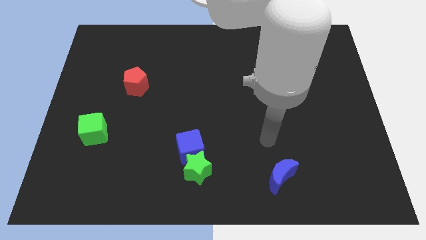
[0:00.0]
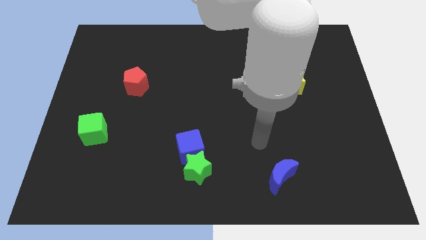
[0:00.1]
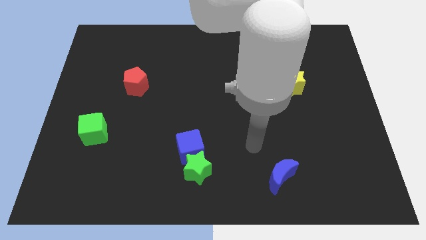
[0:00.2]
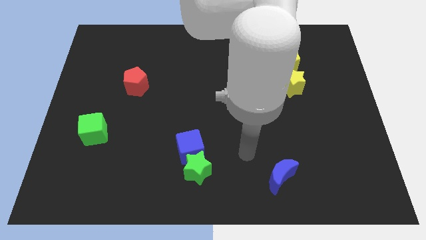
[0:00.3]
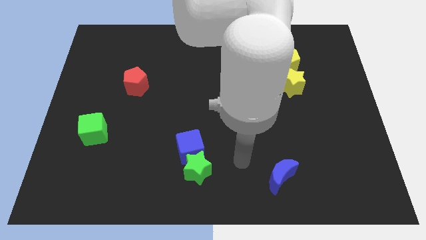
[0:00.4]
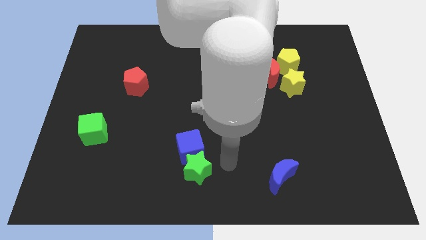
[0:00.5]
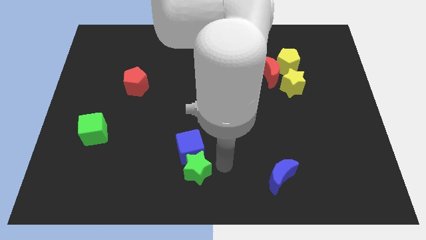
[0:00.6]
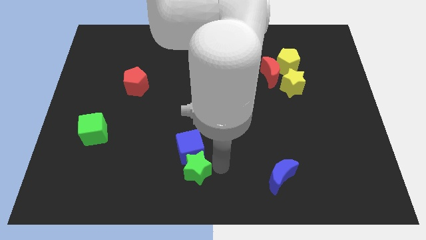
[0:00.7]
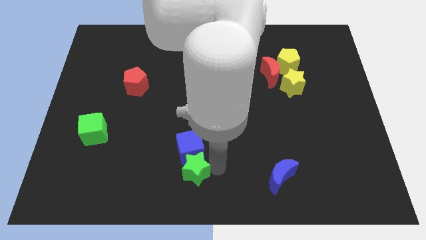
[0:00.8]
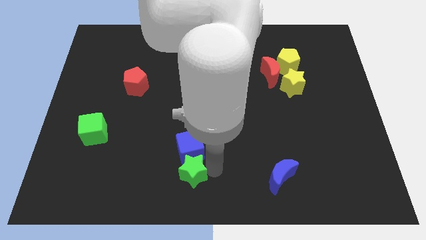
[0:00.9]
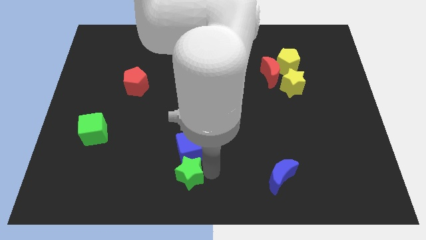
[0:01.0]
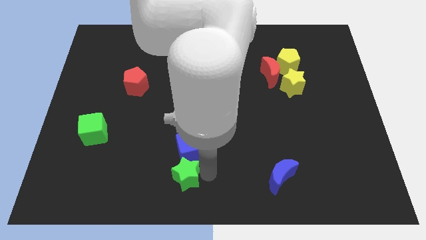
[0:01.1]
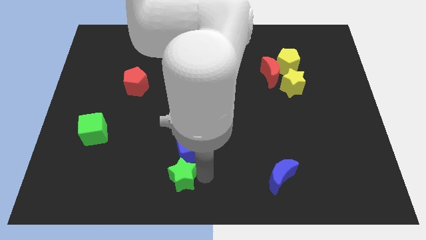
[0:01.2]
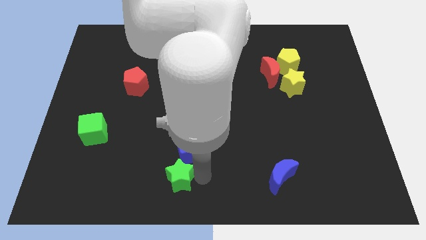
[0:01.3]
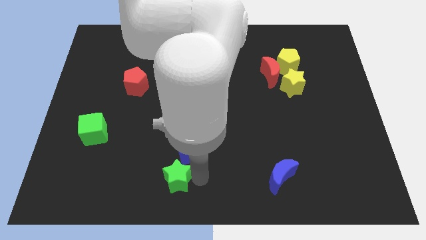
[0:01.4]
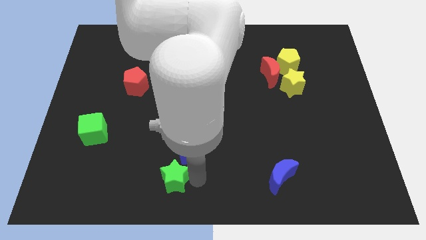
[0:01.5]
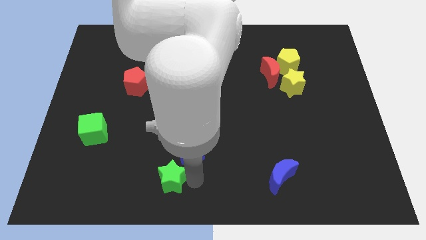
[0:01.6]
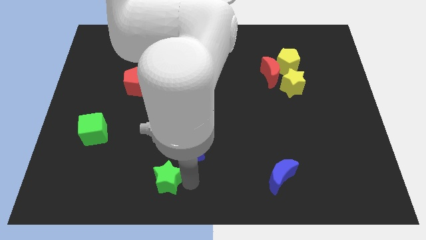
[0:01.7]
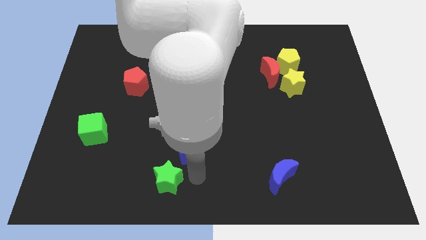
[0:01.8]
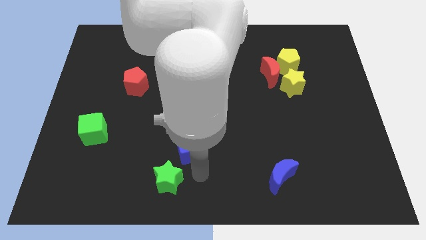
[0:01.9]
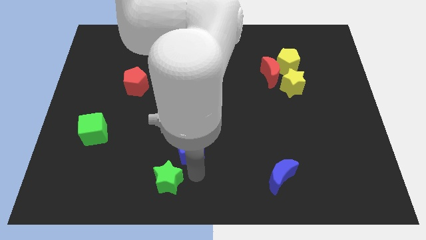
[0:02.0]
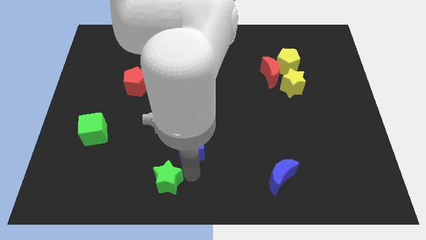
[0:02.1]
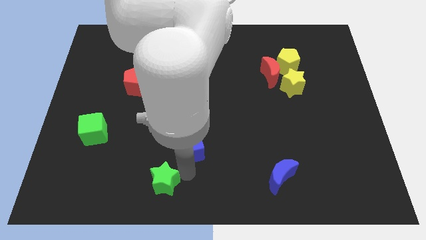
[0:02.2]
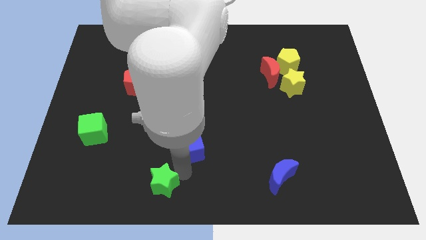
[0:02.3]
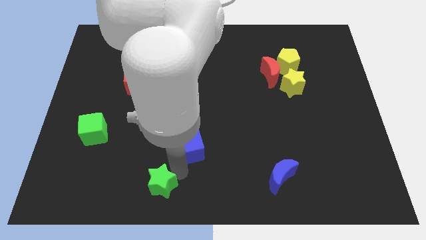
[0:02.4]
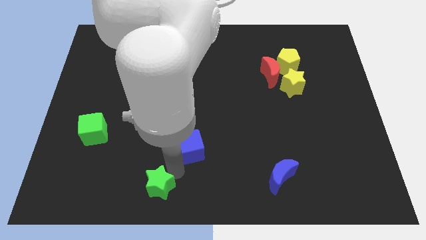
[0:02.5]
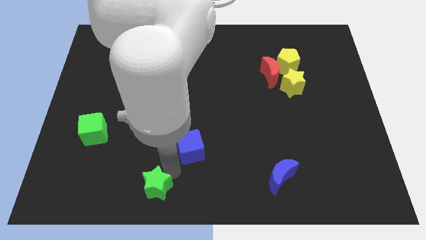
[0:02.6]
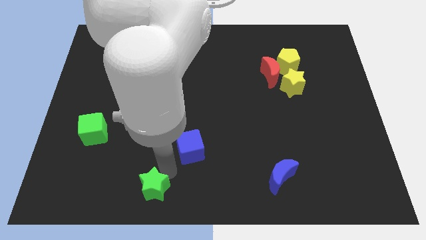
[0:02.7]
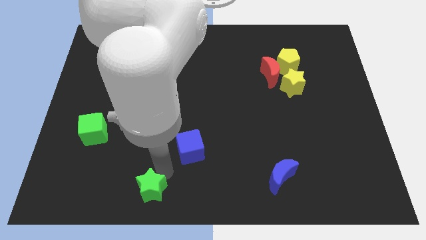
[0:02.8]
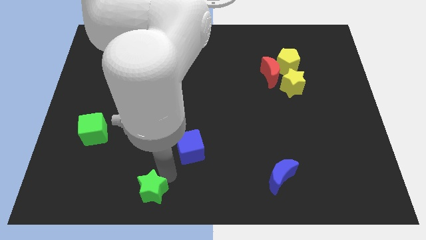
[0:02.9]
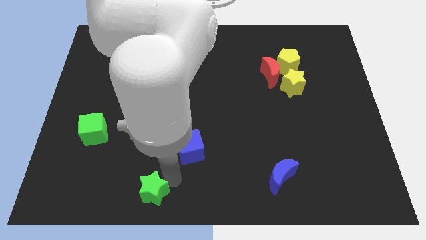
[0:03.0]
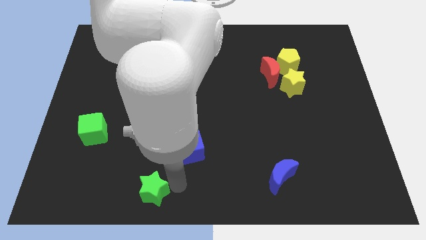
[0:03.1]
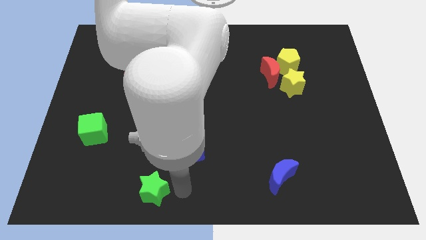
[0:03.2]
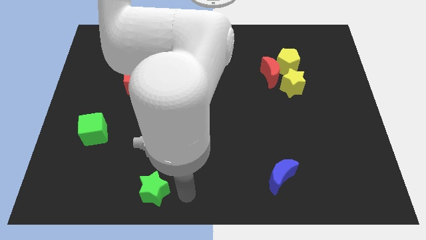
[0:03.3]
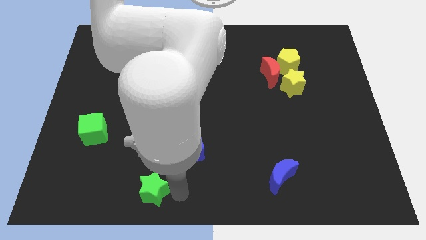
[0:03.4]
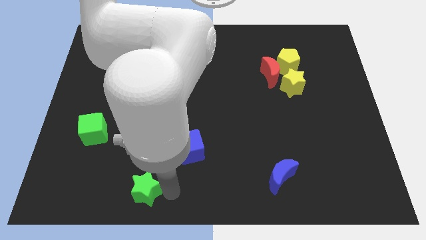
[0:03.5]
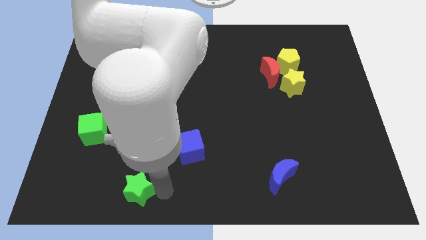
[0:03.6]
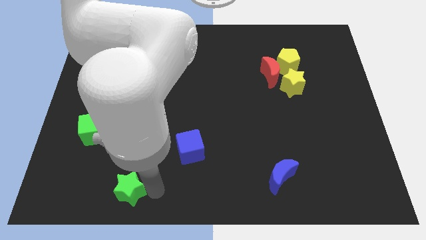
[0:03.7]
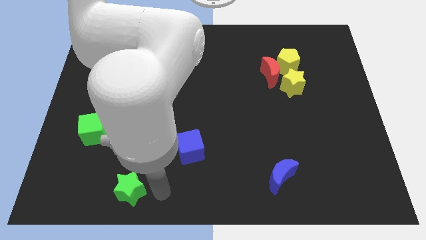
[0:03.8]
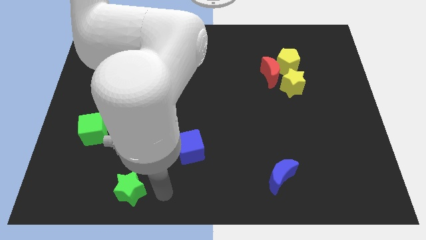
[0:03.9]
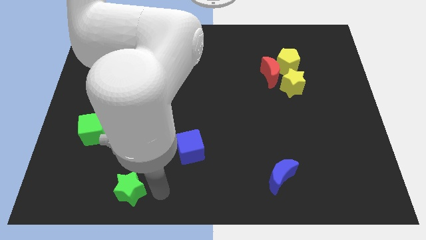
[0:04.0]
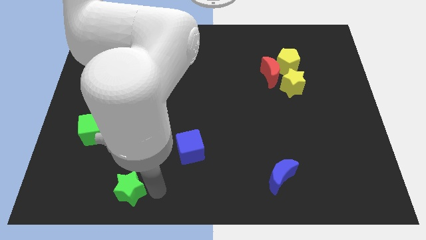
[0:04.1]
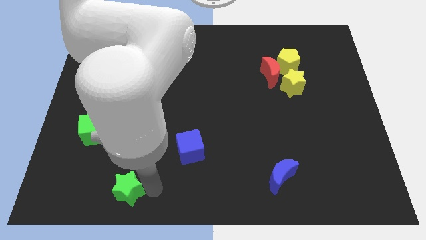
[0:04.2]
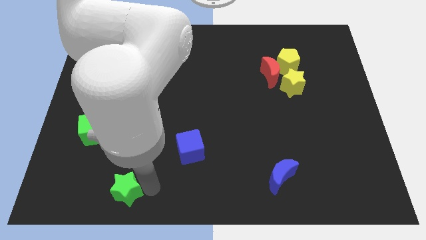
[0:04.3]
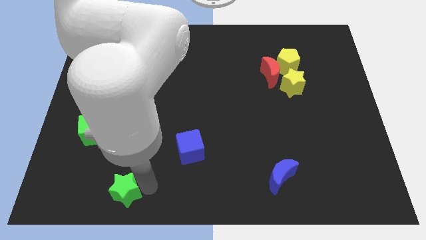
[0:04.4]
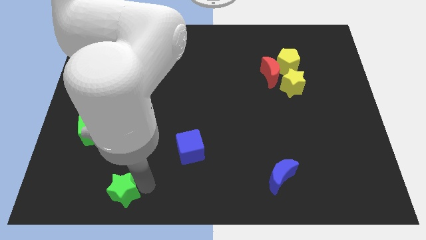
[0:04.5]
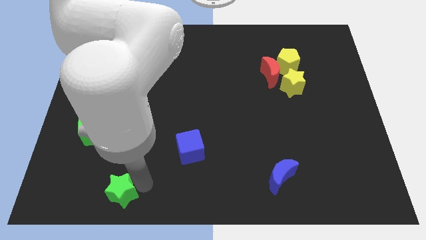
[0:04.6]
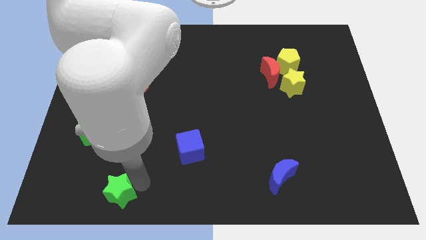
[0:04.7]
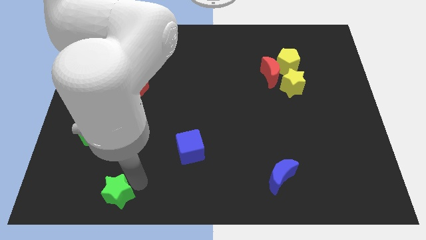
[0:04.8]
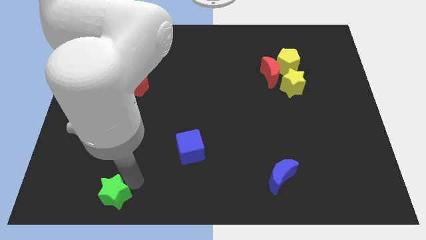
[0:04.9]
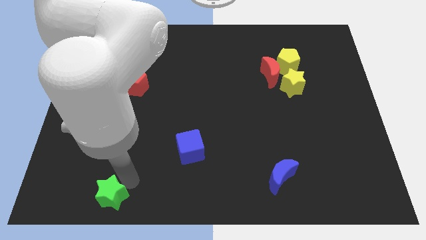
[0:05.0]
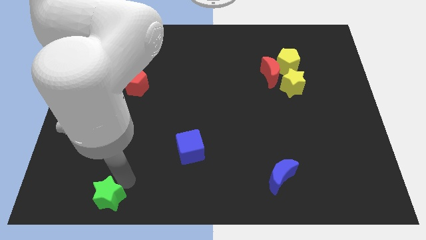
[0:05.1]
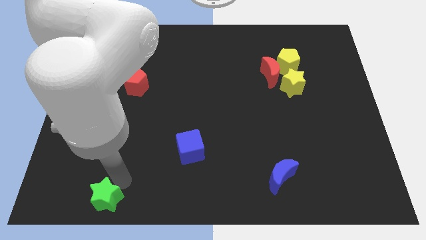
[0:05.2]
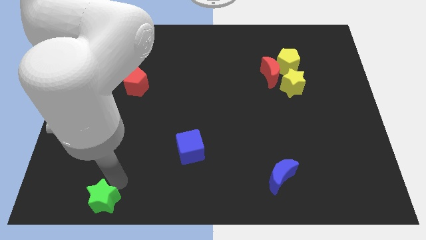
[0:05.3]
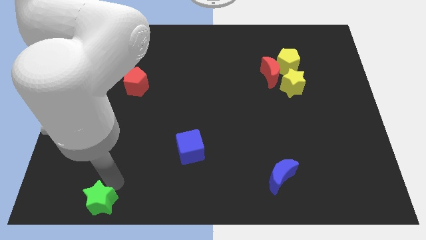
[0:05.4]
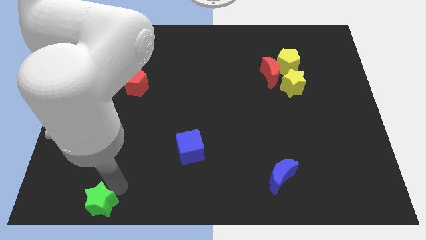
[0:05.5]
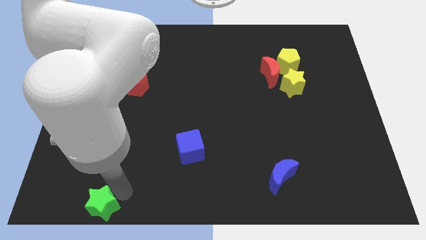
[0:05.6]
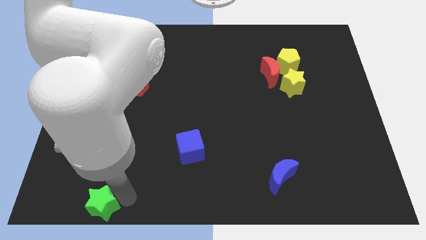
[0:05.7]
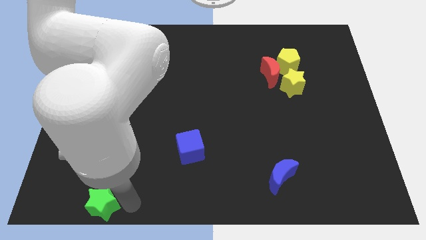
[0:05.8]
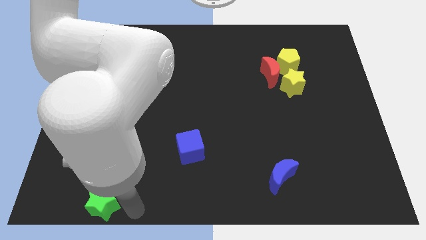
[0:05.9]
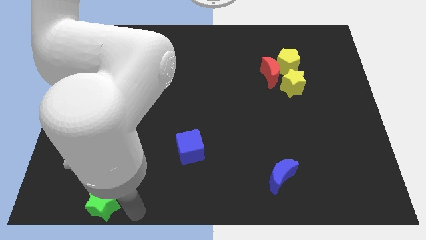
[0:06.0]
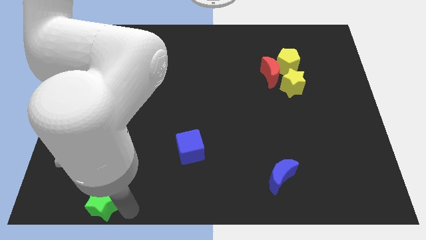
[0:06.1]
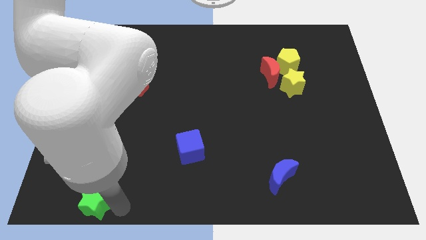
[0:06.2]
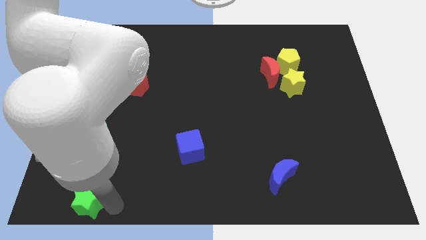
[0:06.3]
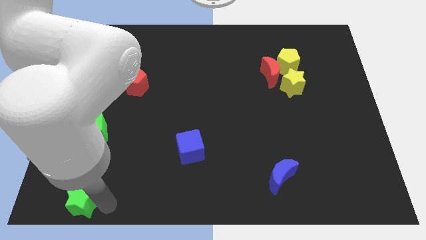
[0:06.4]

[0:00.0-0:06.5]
move the green star to the bottom left
